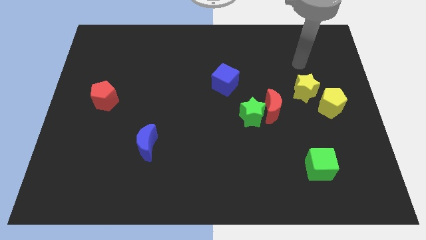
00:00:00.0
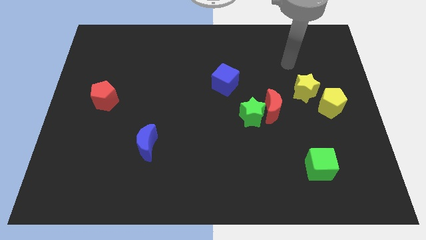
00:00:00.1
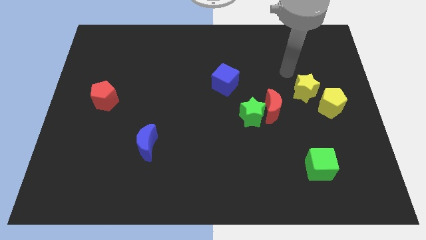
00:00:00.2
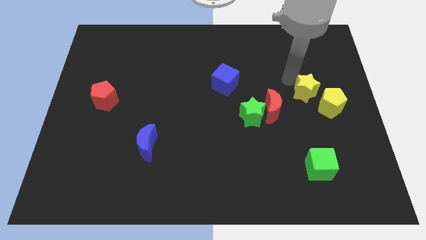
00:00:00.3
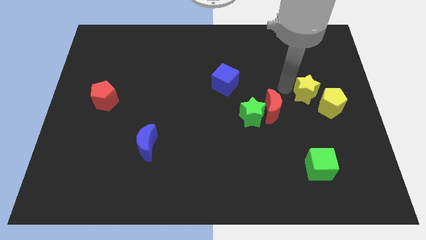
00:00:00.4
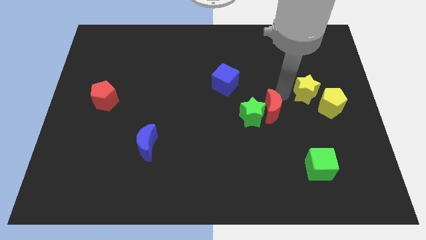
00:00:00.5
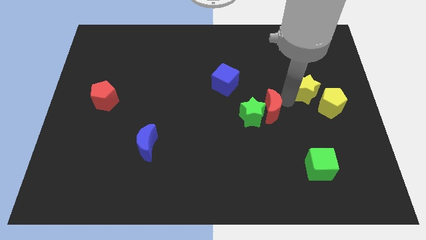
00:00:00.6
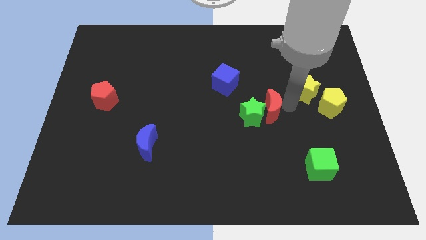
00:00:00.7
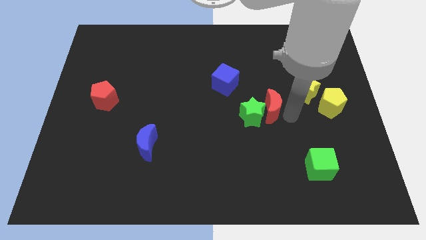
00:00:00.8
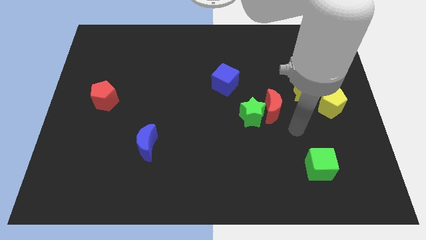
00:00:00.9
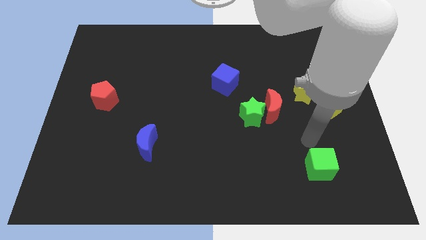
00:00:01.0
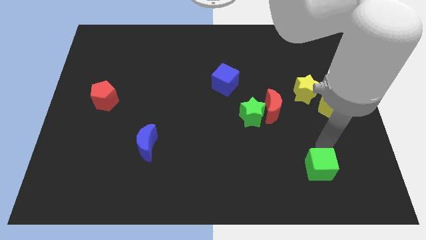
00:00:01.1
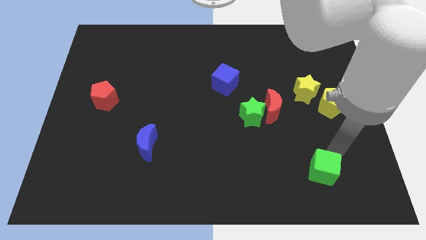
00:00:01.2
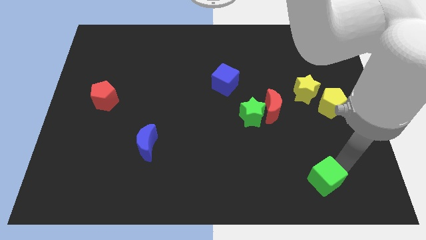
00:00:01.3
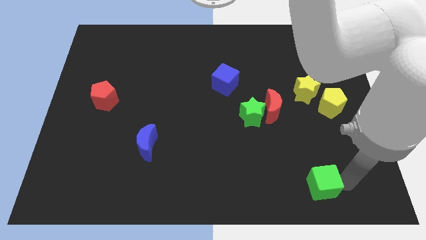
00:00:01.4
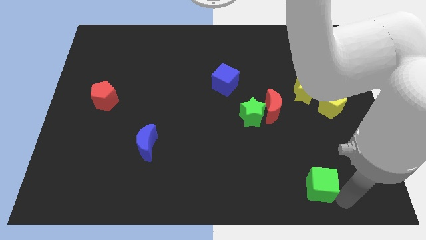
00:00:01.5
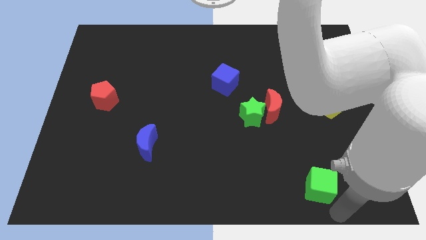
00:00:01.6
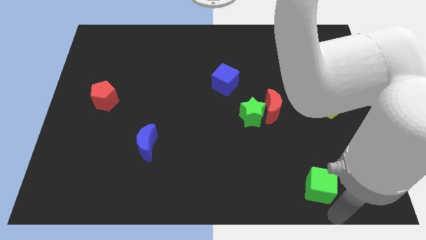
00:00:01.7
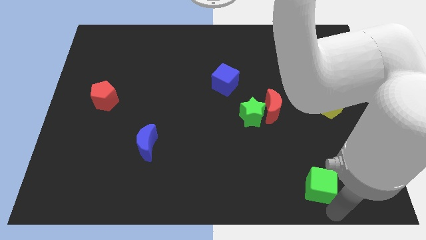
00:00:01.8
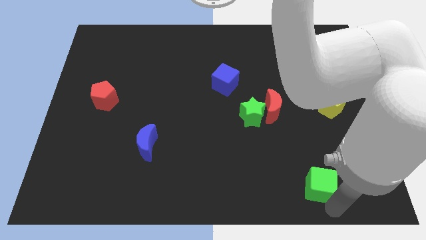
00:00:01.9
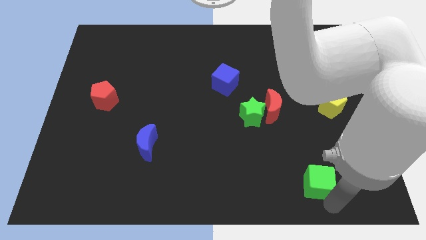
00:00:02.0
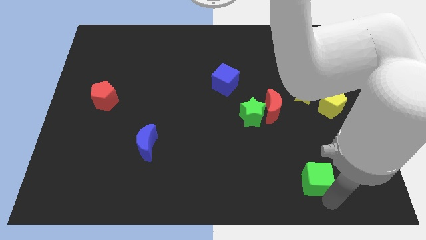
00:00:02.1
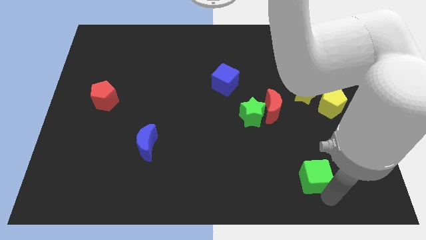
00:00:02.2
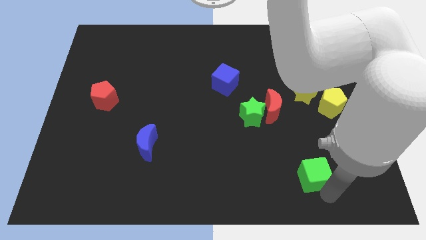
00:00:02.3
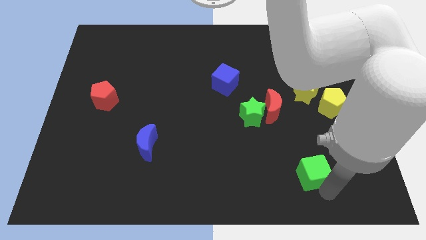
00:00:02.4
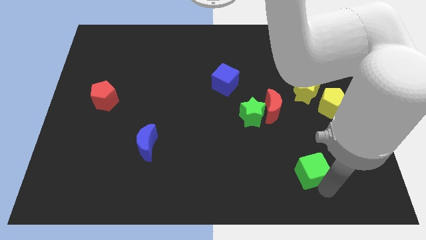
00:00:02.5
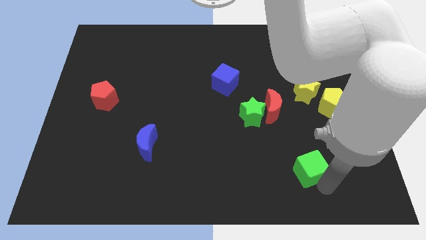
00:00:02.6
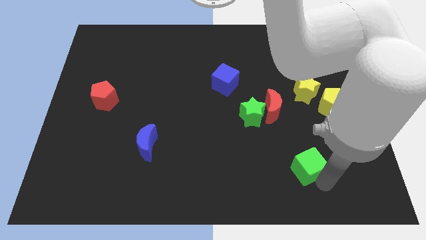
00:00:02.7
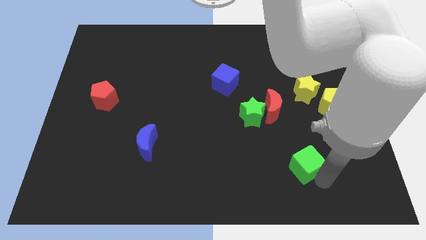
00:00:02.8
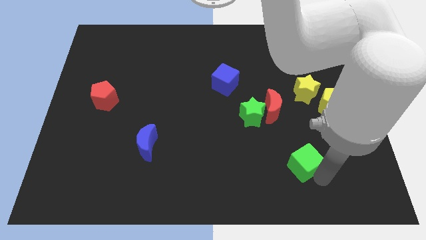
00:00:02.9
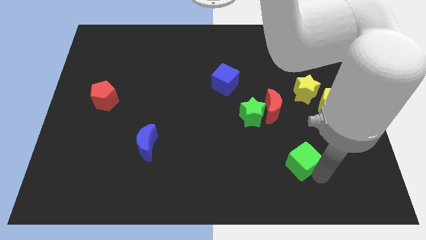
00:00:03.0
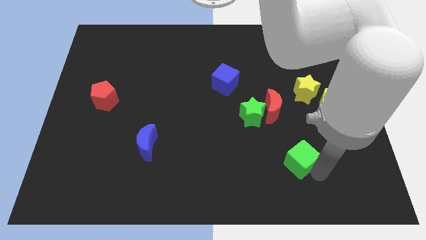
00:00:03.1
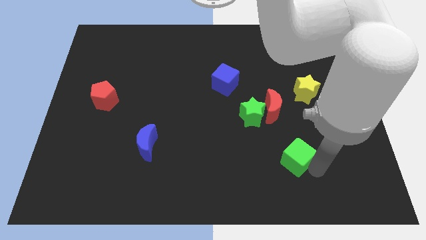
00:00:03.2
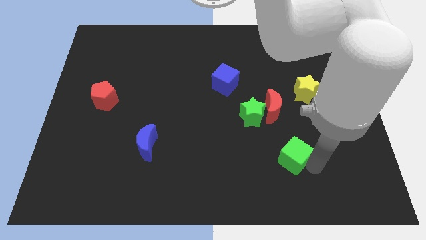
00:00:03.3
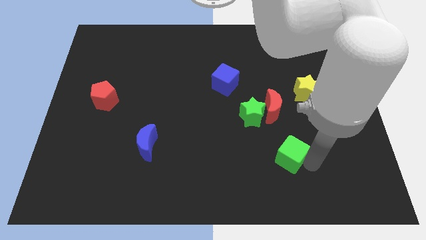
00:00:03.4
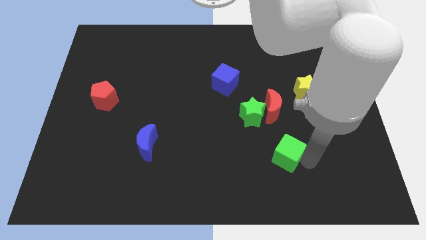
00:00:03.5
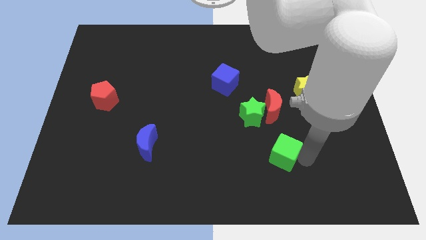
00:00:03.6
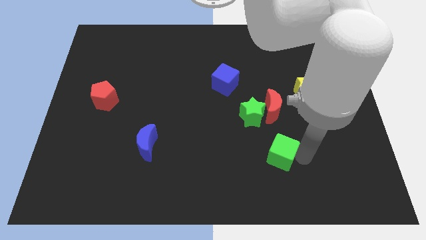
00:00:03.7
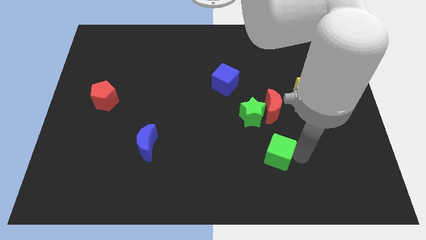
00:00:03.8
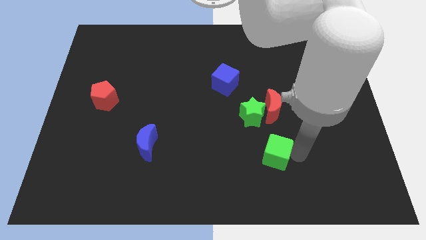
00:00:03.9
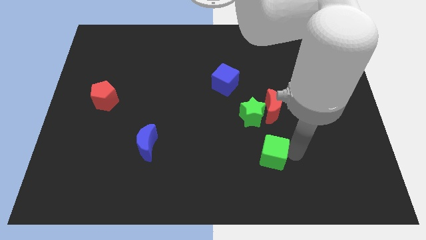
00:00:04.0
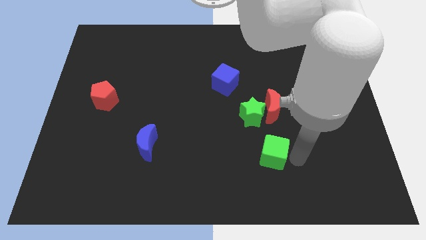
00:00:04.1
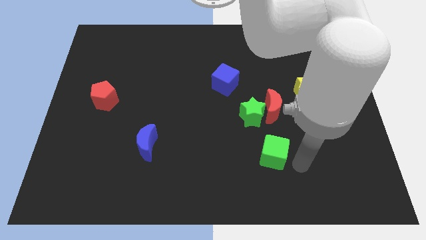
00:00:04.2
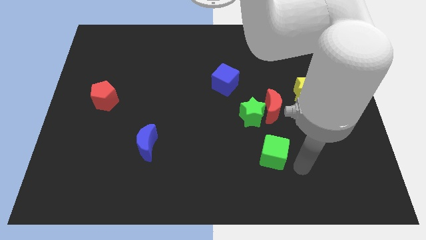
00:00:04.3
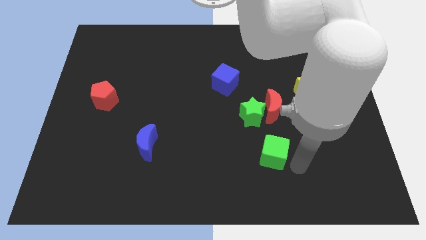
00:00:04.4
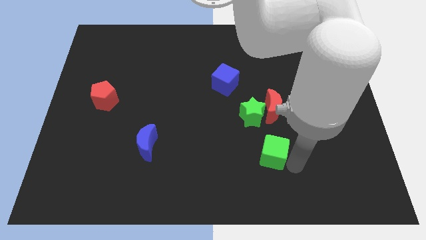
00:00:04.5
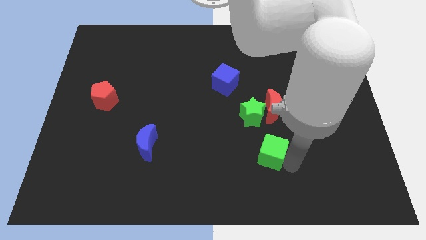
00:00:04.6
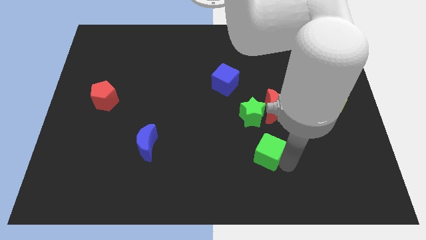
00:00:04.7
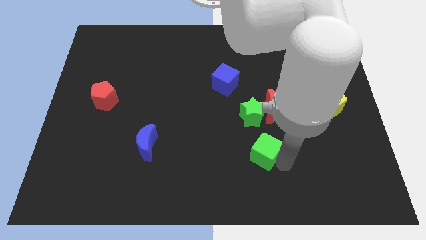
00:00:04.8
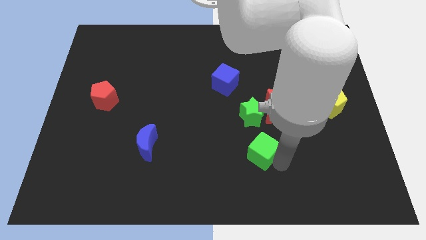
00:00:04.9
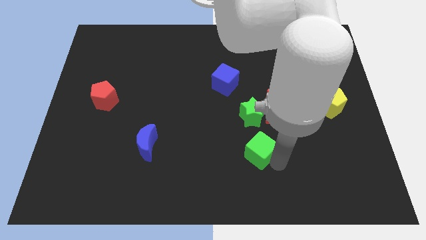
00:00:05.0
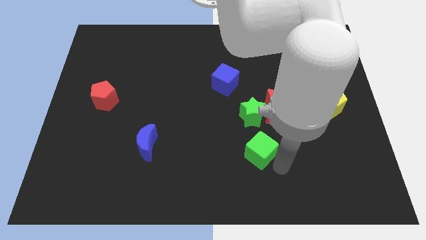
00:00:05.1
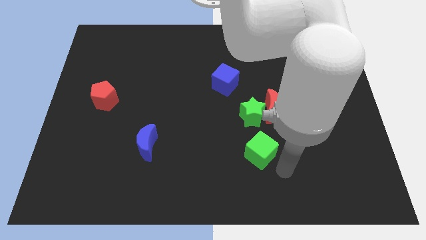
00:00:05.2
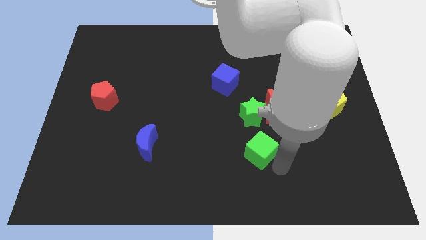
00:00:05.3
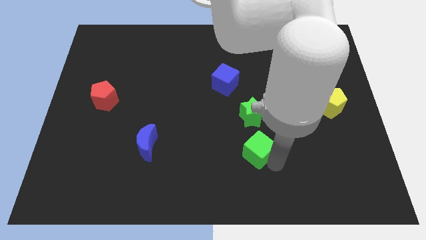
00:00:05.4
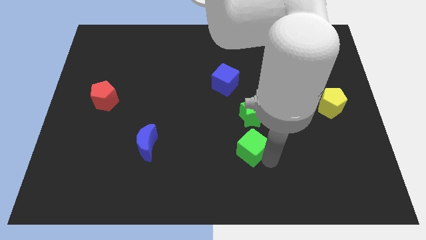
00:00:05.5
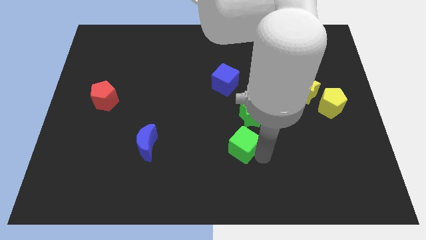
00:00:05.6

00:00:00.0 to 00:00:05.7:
slide the green cube to the bottom left of the green star
